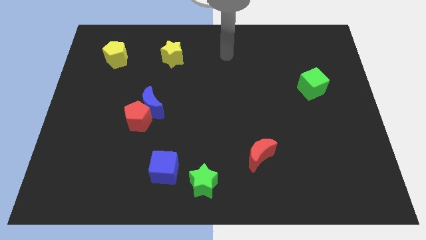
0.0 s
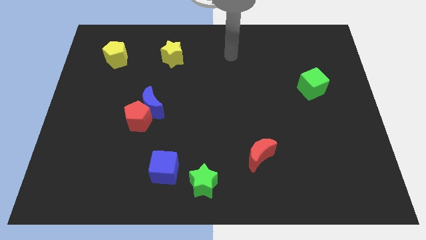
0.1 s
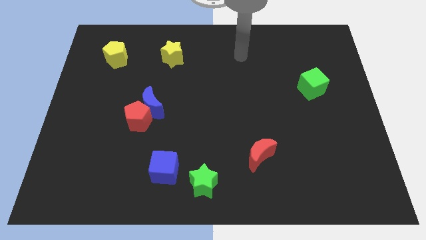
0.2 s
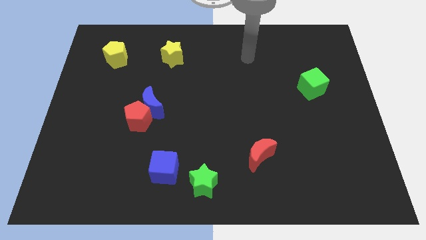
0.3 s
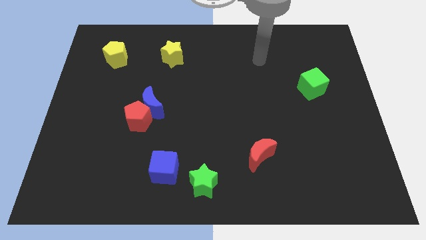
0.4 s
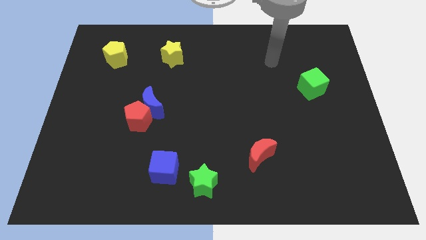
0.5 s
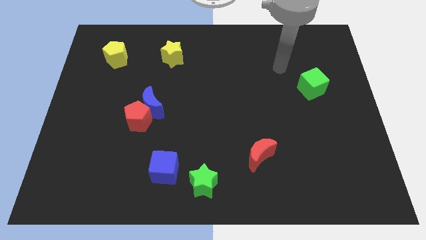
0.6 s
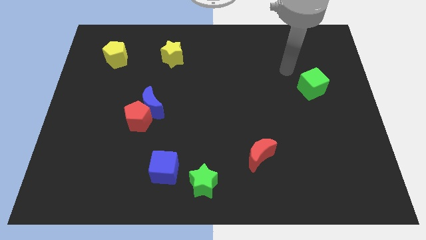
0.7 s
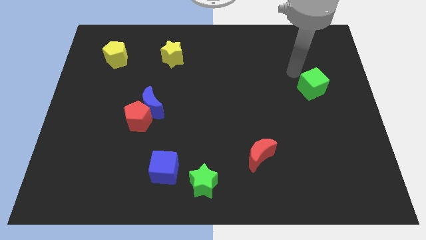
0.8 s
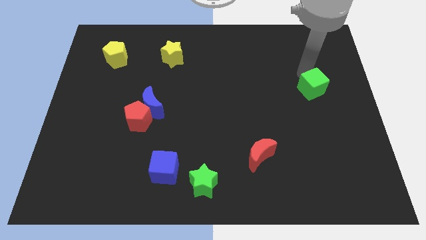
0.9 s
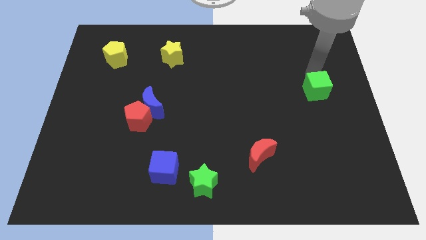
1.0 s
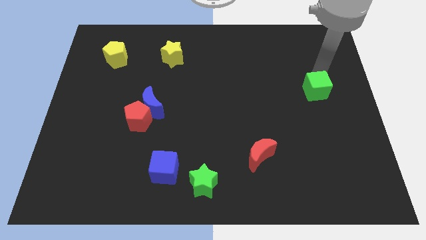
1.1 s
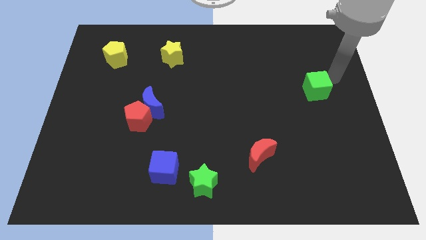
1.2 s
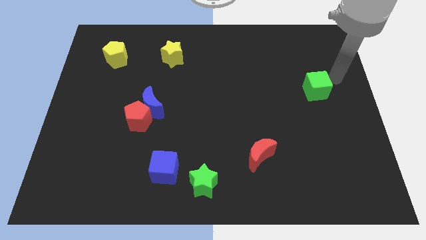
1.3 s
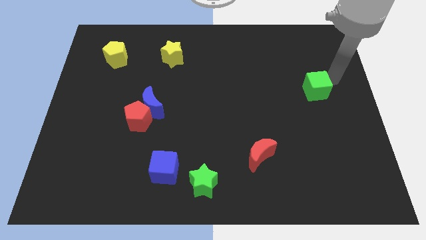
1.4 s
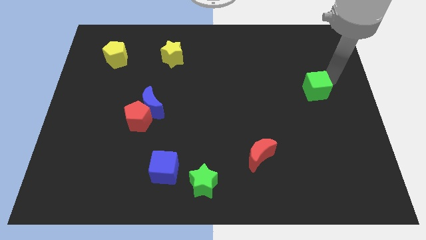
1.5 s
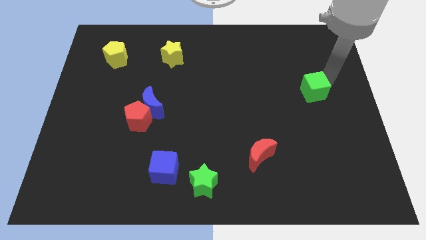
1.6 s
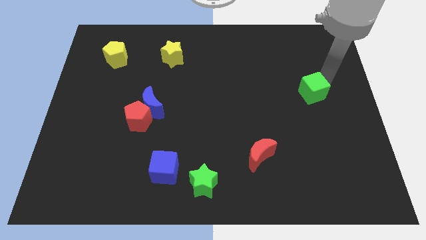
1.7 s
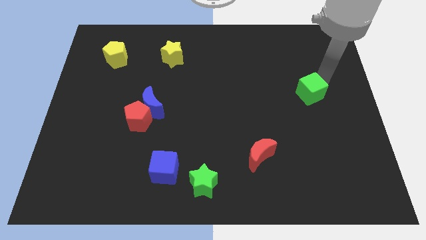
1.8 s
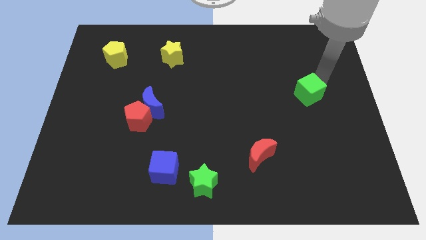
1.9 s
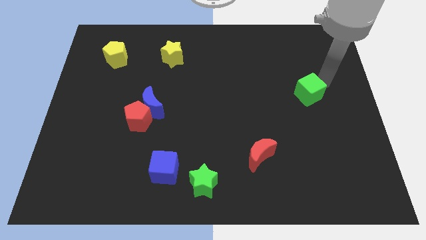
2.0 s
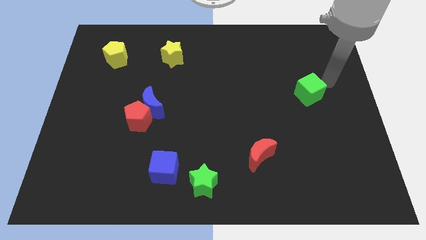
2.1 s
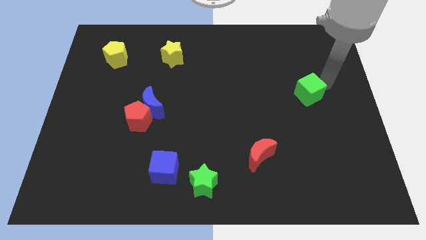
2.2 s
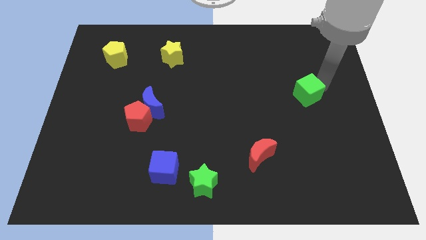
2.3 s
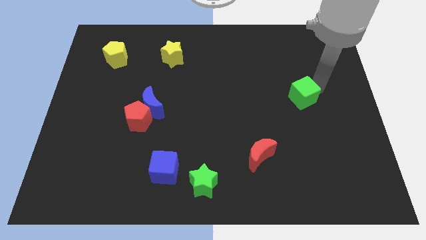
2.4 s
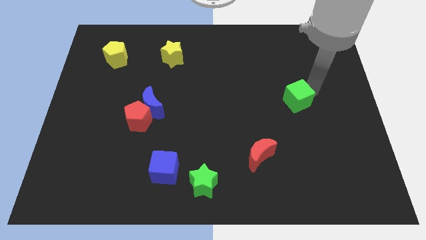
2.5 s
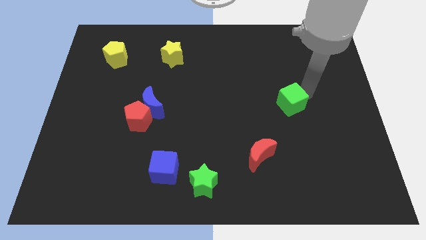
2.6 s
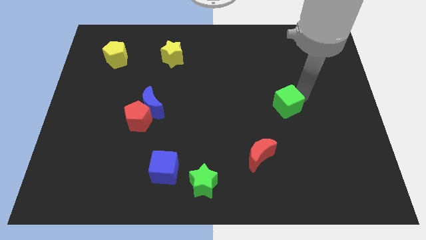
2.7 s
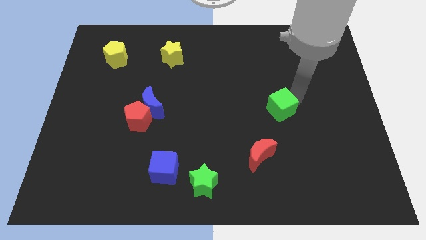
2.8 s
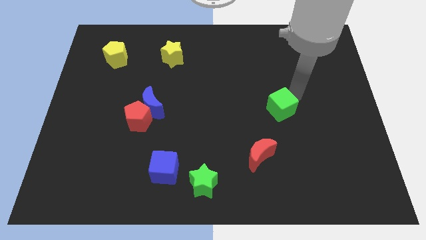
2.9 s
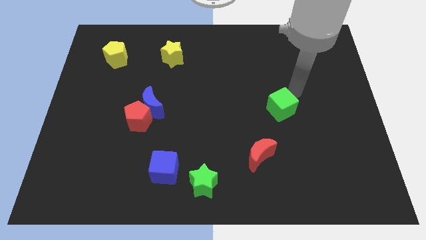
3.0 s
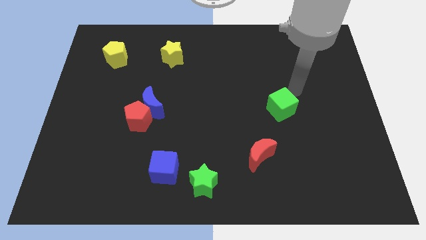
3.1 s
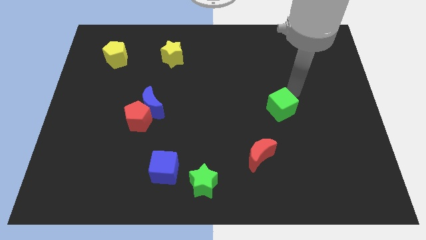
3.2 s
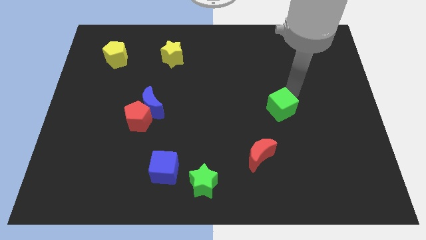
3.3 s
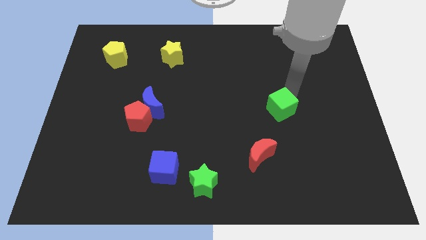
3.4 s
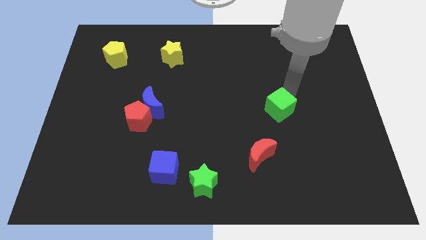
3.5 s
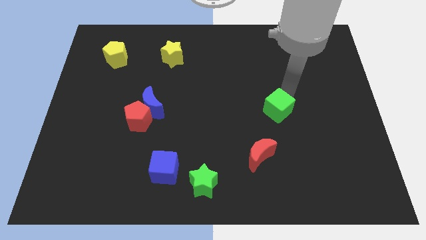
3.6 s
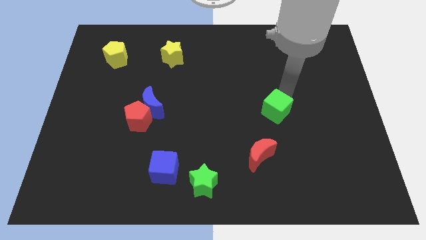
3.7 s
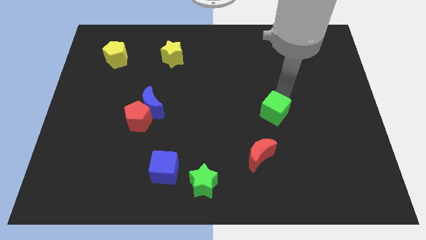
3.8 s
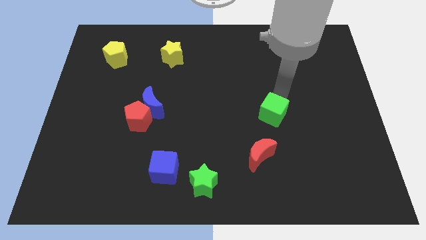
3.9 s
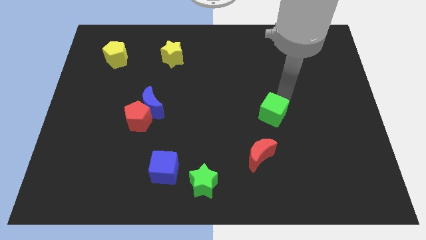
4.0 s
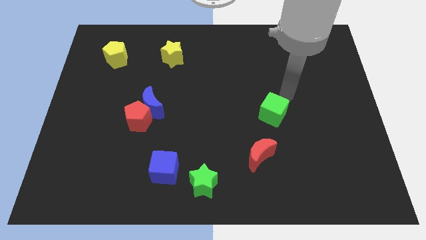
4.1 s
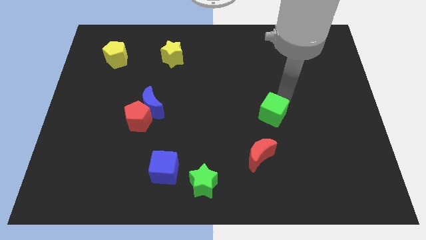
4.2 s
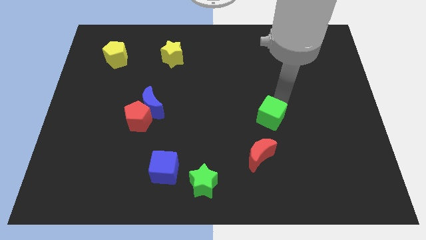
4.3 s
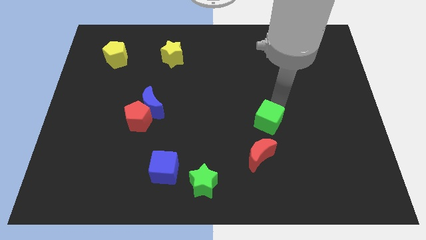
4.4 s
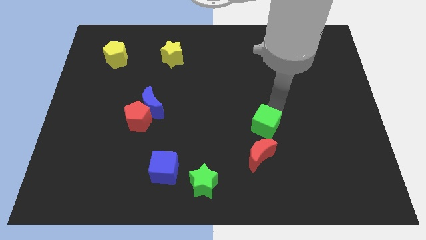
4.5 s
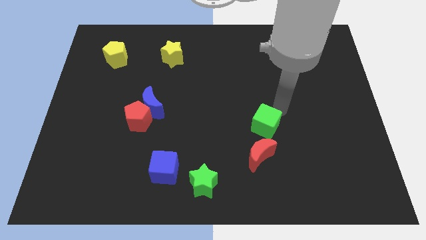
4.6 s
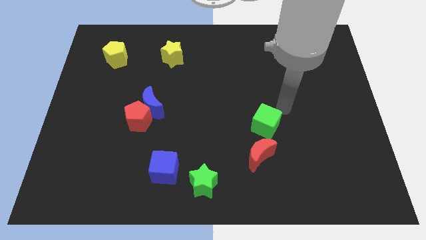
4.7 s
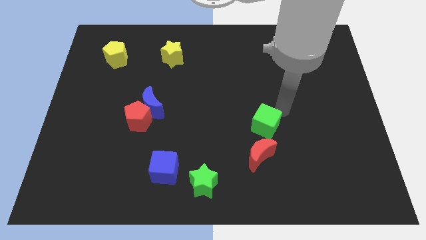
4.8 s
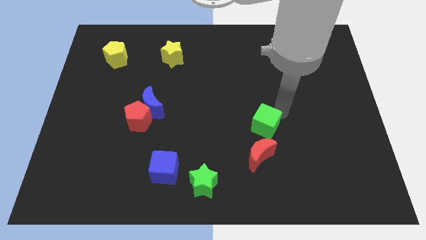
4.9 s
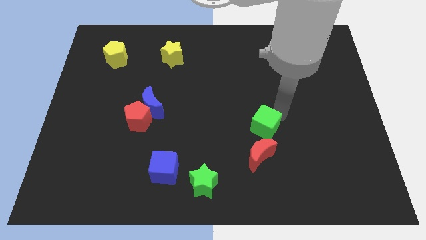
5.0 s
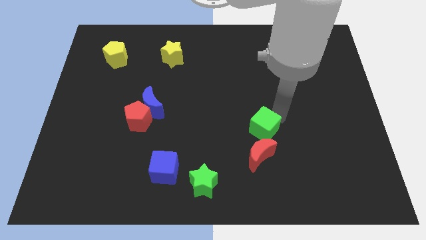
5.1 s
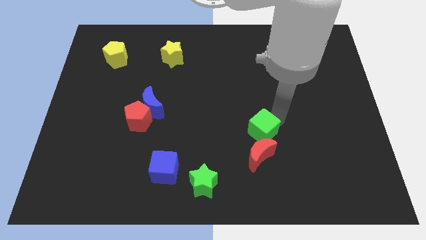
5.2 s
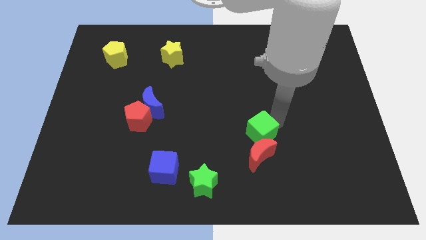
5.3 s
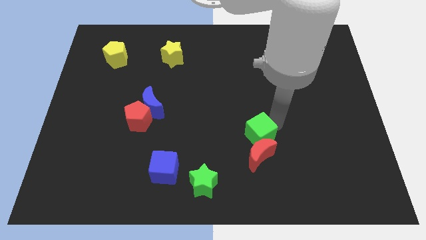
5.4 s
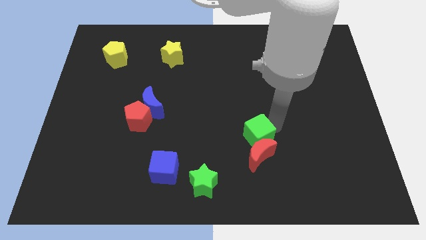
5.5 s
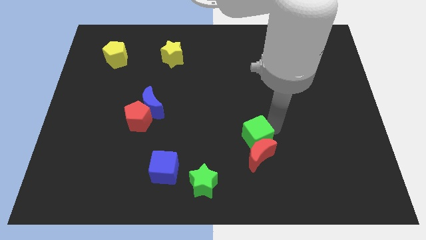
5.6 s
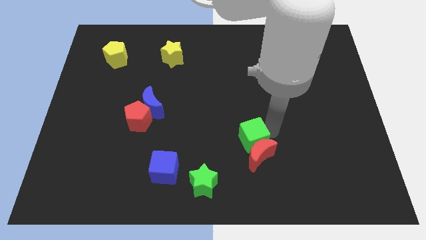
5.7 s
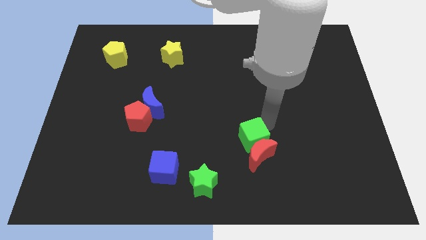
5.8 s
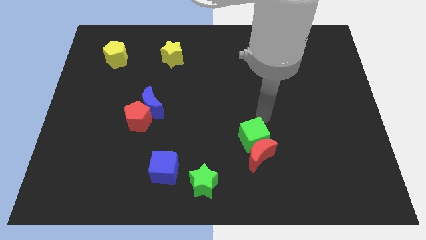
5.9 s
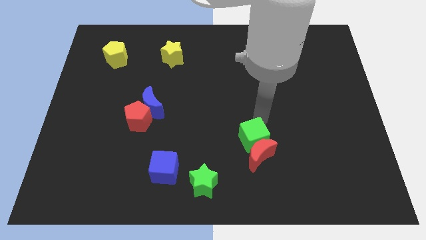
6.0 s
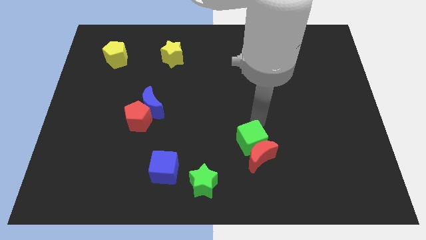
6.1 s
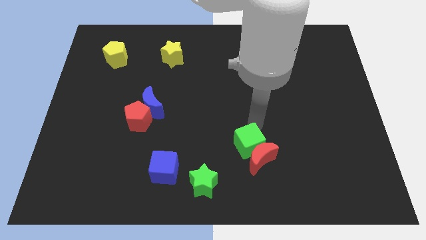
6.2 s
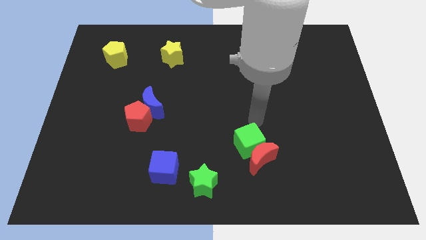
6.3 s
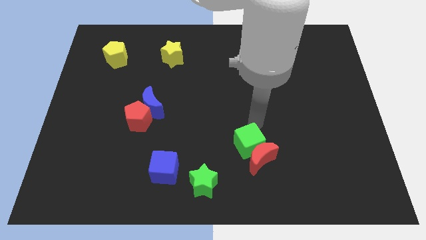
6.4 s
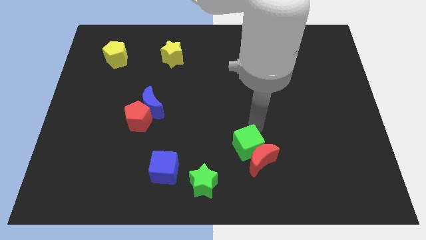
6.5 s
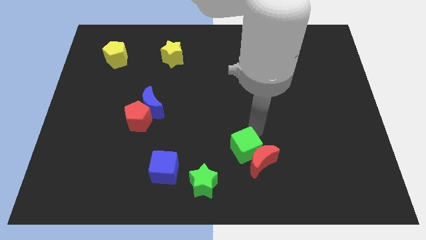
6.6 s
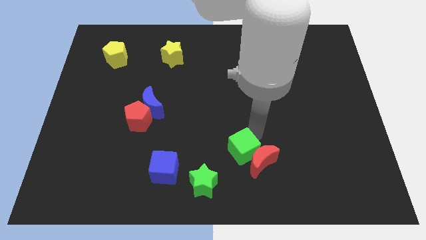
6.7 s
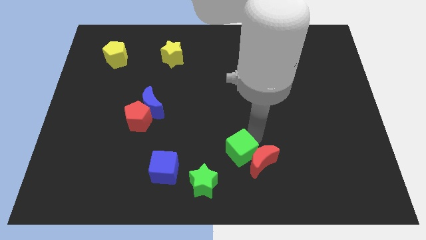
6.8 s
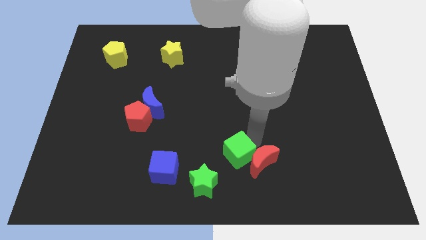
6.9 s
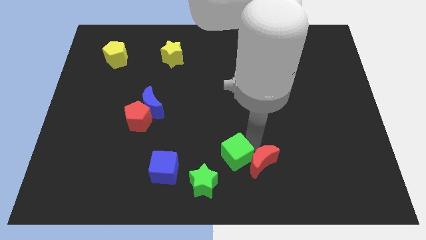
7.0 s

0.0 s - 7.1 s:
slide the green cube to the bottom left of the red moon
